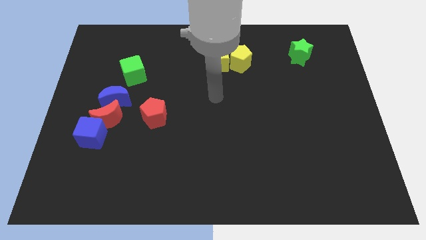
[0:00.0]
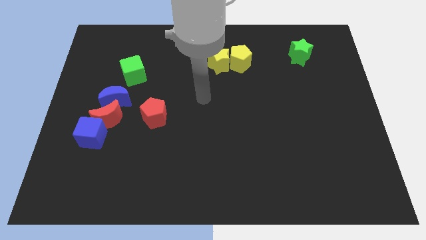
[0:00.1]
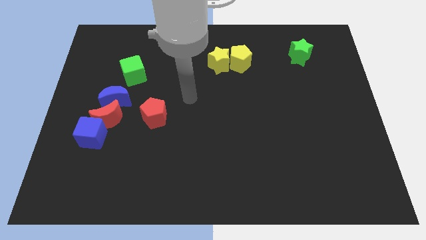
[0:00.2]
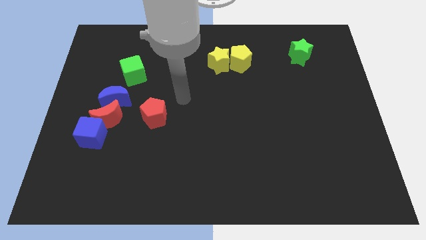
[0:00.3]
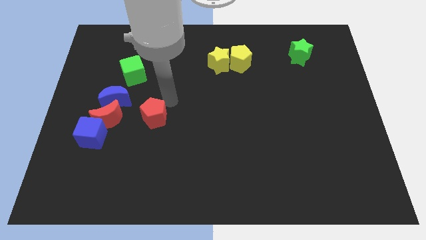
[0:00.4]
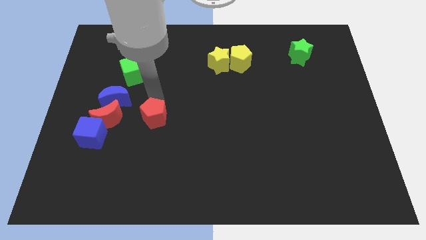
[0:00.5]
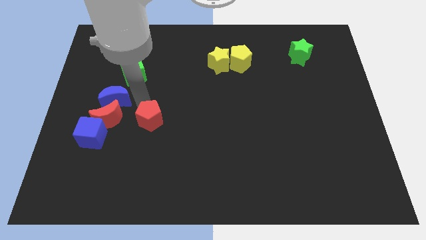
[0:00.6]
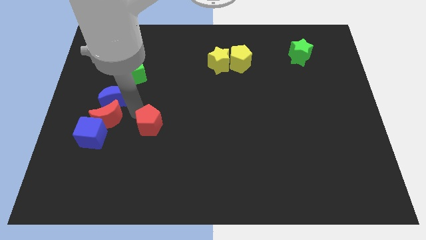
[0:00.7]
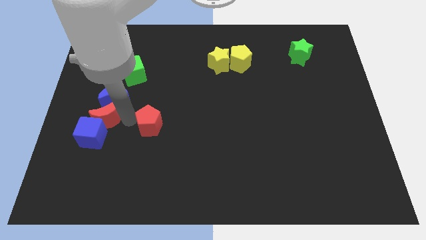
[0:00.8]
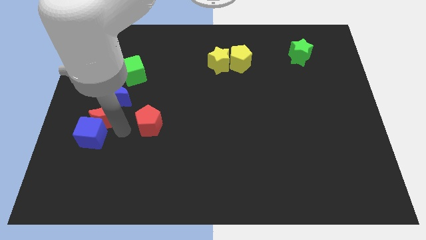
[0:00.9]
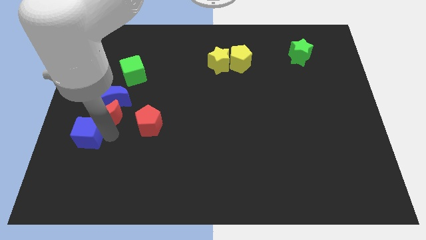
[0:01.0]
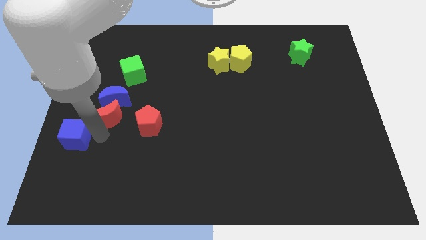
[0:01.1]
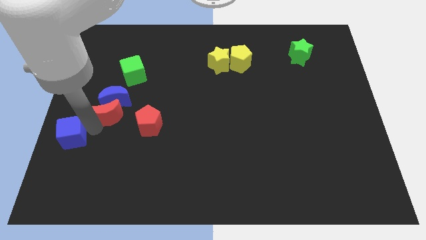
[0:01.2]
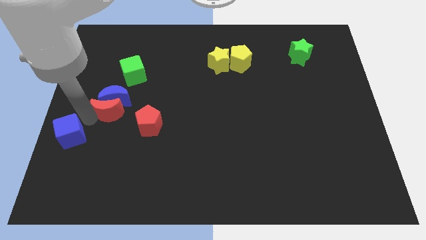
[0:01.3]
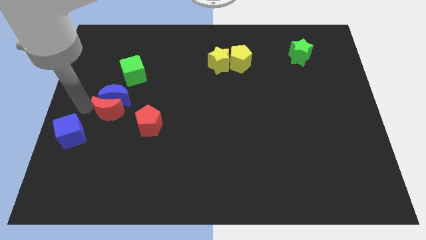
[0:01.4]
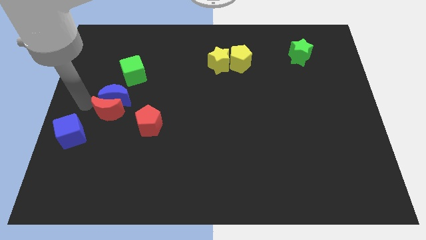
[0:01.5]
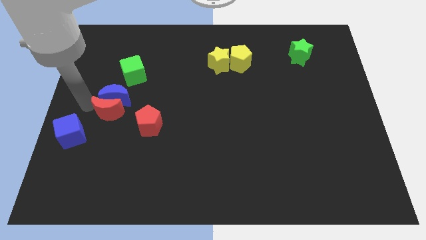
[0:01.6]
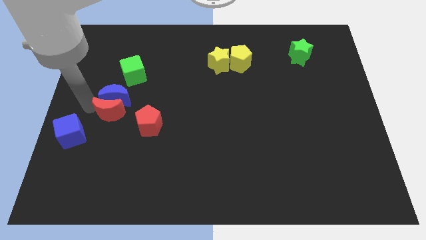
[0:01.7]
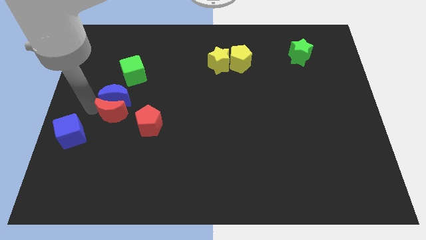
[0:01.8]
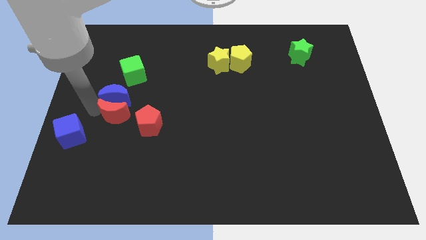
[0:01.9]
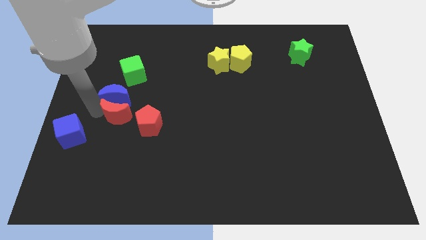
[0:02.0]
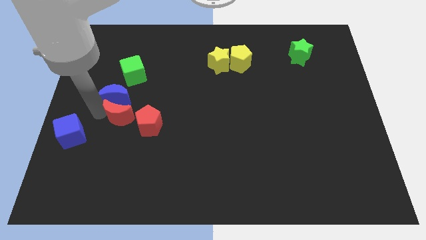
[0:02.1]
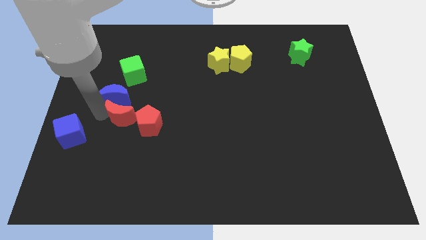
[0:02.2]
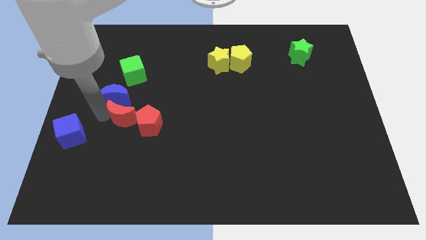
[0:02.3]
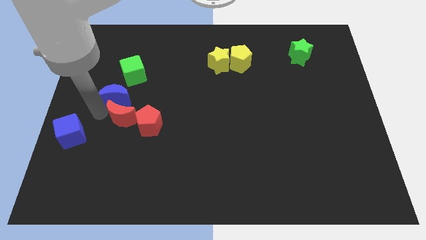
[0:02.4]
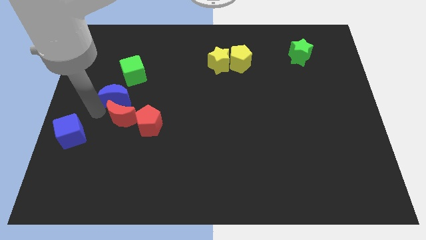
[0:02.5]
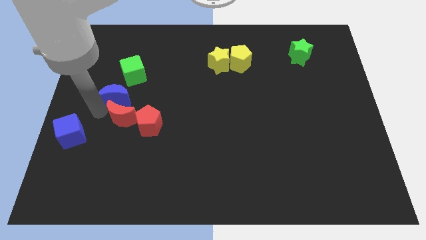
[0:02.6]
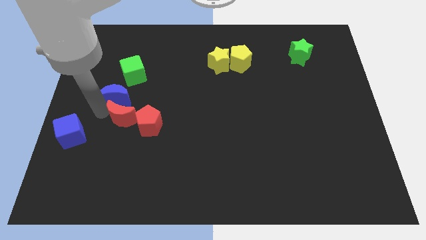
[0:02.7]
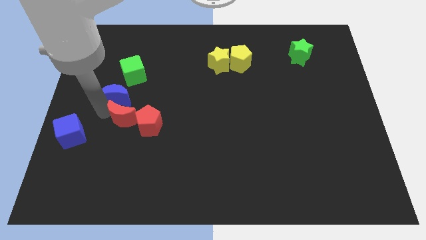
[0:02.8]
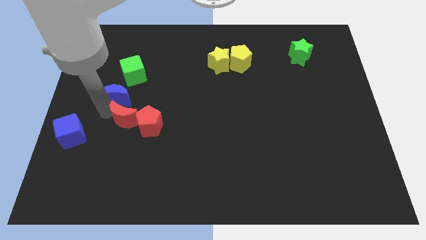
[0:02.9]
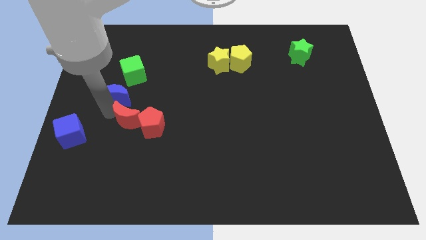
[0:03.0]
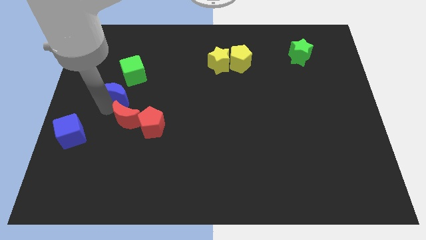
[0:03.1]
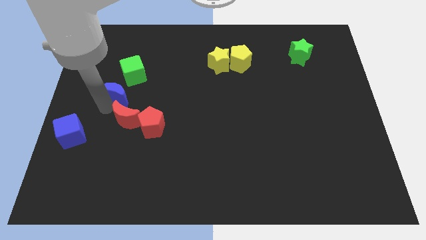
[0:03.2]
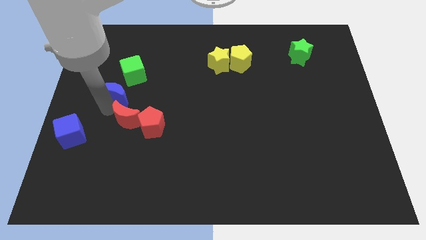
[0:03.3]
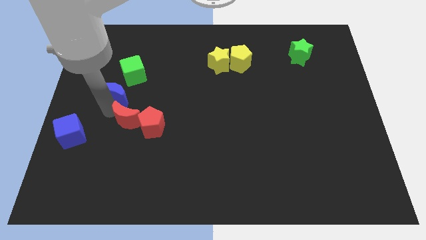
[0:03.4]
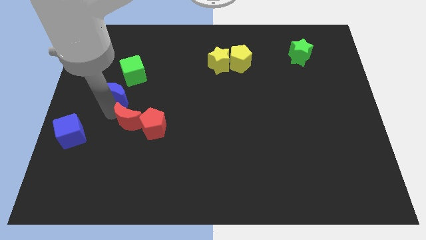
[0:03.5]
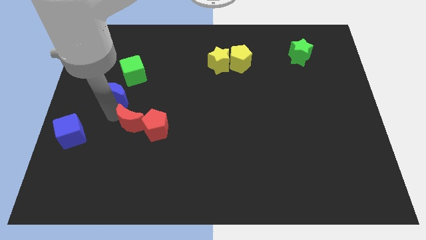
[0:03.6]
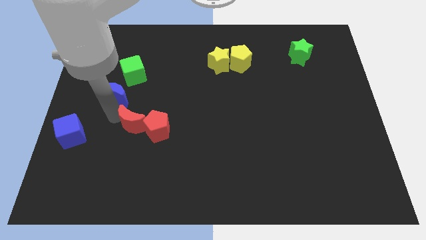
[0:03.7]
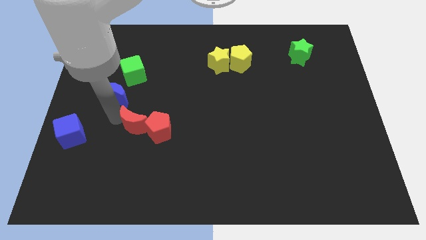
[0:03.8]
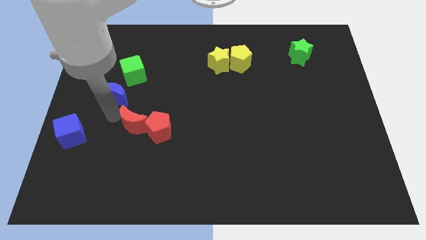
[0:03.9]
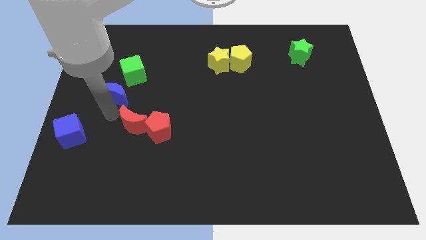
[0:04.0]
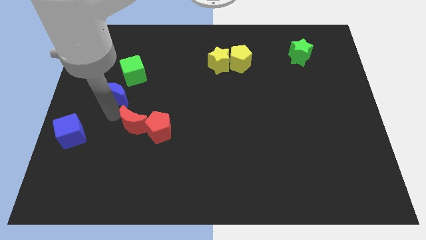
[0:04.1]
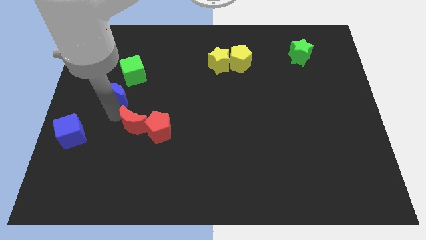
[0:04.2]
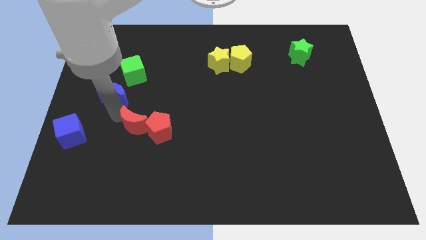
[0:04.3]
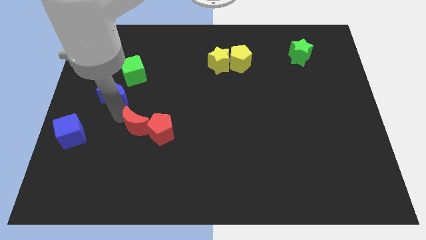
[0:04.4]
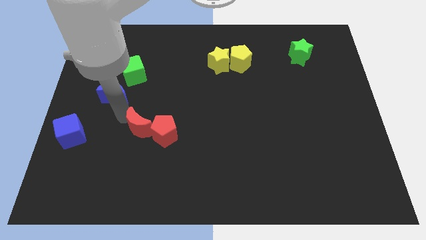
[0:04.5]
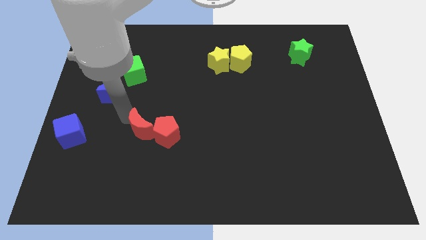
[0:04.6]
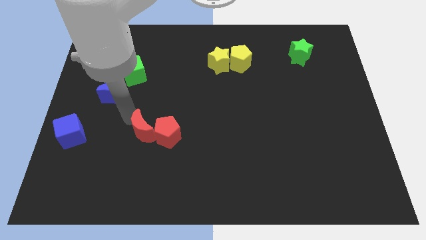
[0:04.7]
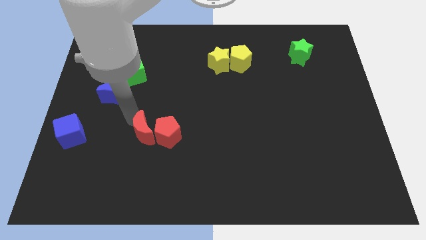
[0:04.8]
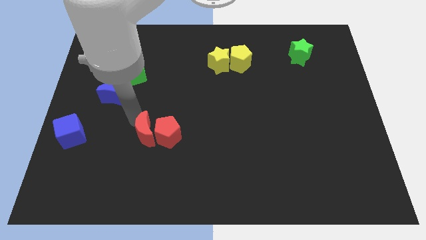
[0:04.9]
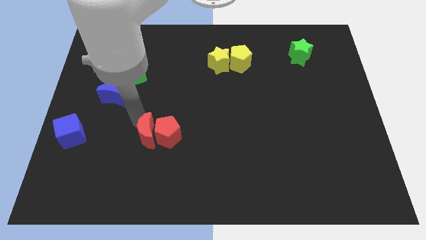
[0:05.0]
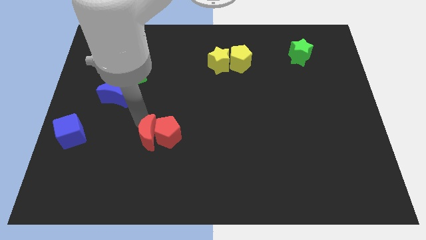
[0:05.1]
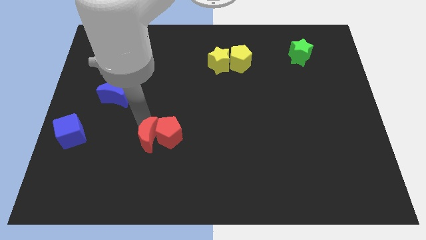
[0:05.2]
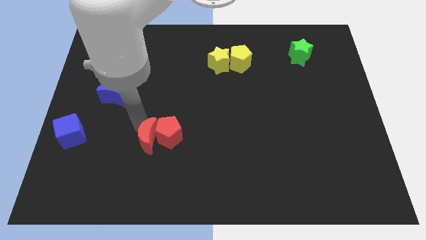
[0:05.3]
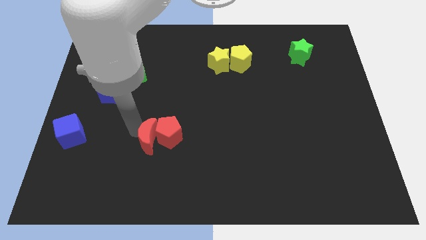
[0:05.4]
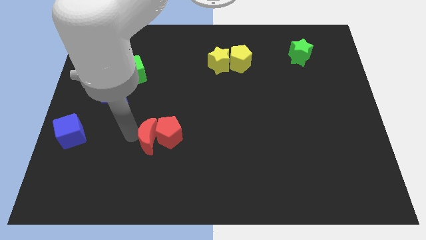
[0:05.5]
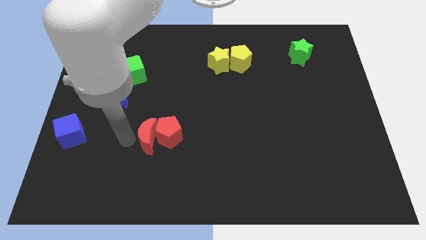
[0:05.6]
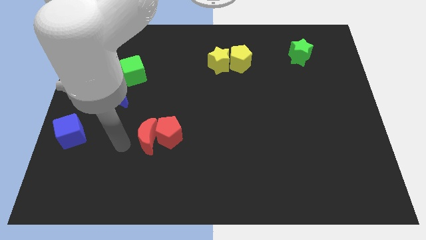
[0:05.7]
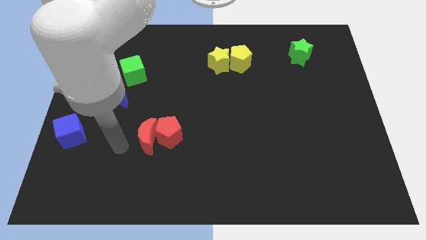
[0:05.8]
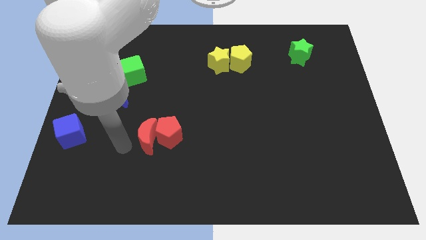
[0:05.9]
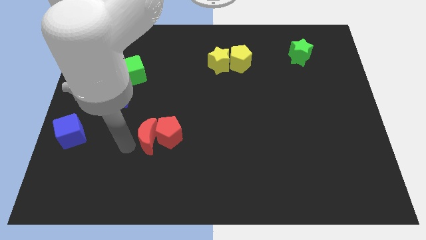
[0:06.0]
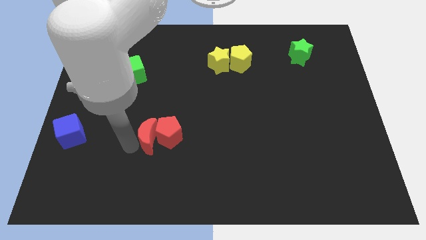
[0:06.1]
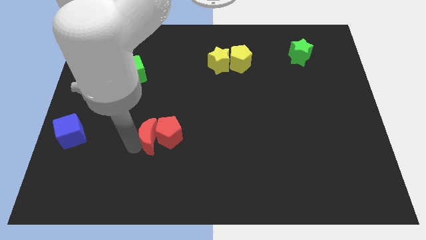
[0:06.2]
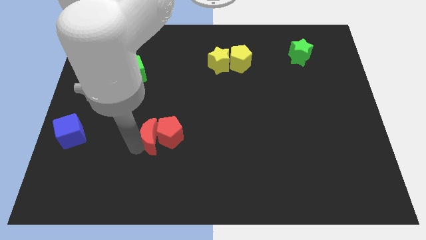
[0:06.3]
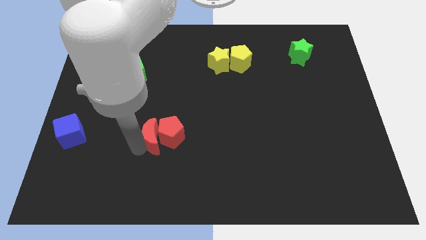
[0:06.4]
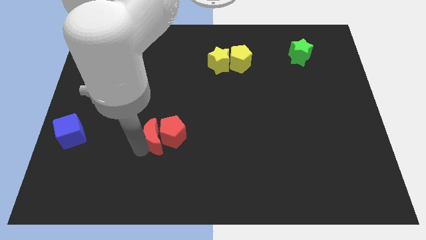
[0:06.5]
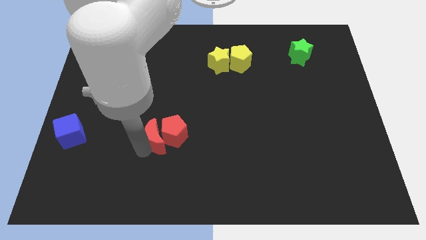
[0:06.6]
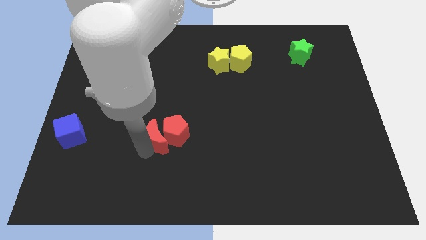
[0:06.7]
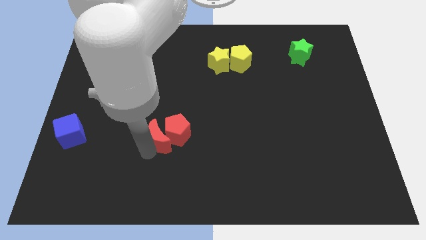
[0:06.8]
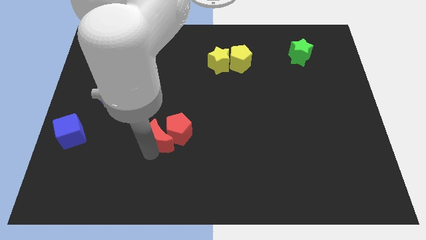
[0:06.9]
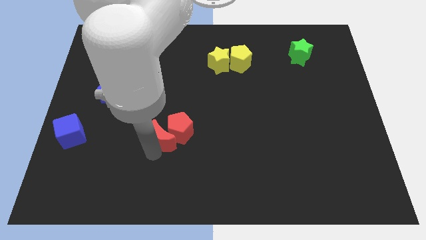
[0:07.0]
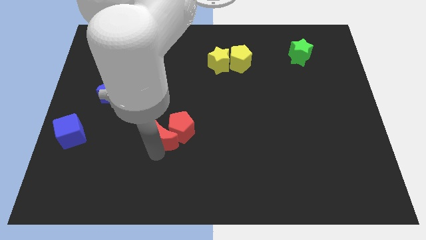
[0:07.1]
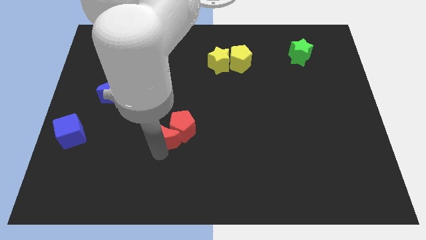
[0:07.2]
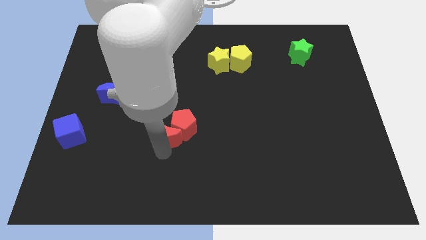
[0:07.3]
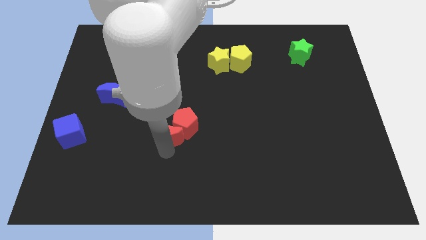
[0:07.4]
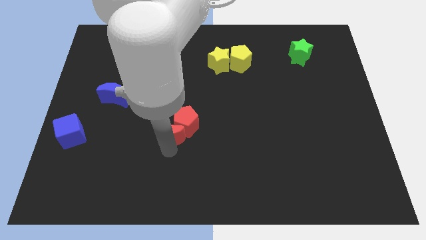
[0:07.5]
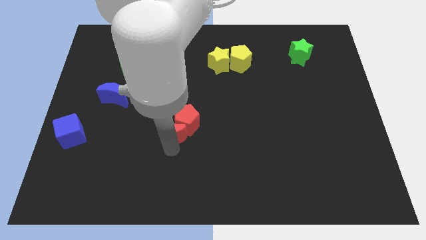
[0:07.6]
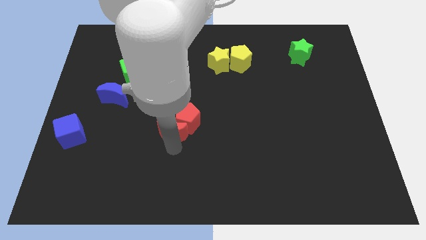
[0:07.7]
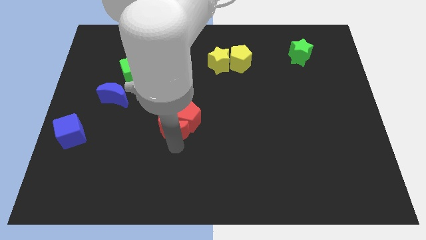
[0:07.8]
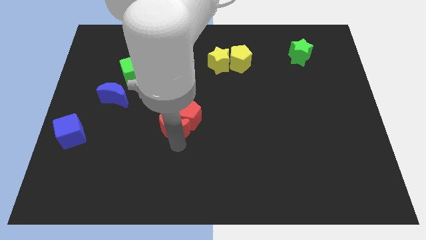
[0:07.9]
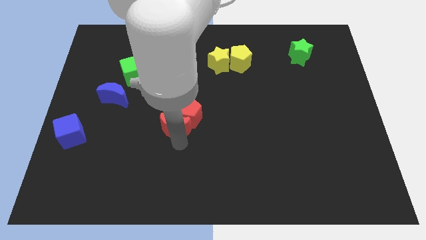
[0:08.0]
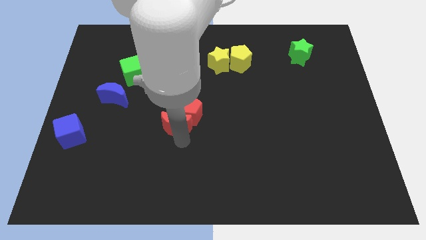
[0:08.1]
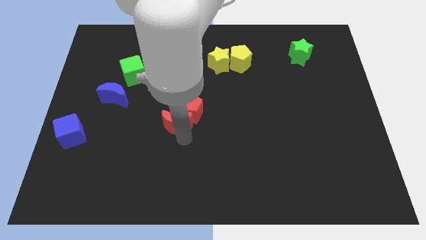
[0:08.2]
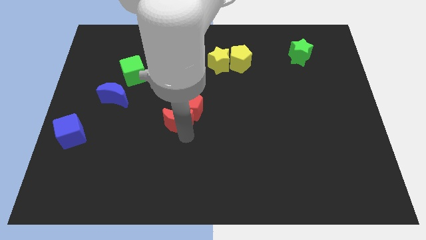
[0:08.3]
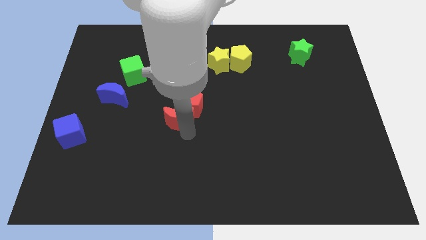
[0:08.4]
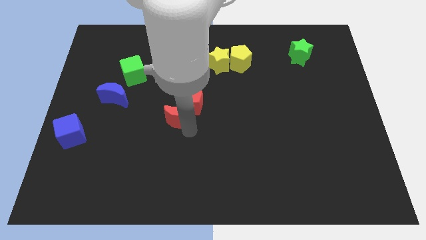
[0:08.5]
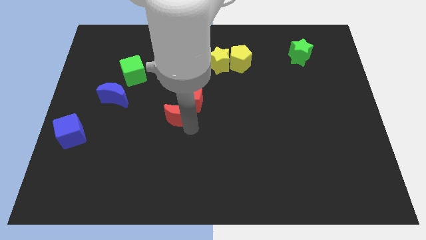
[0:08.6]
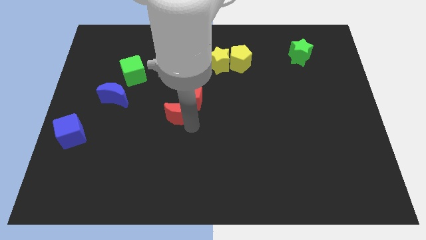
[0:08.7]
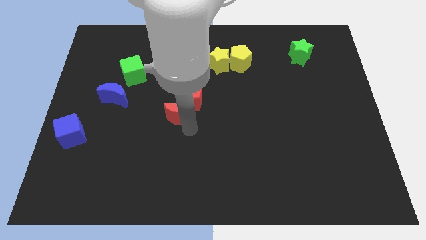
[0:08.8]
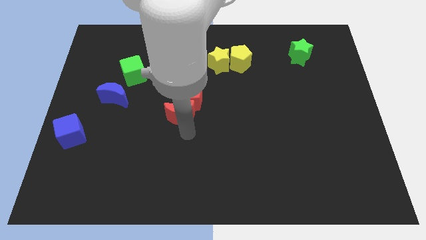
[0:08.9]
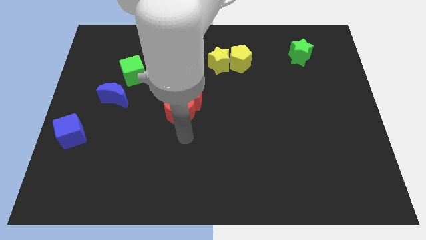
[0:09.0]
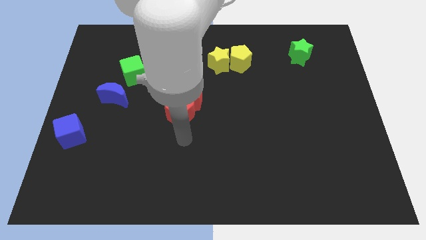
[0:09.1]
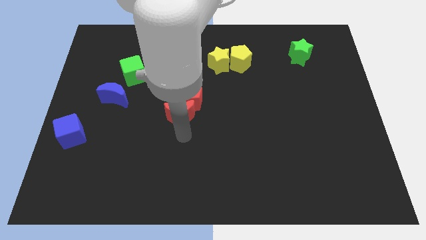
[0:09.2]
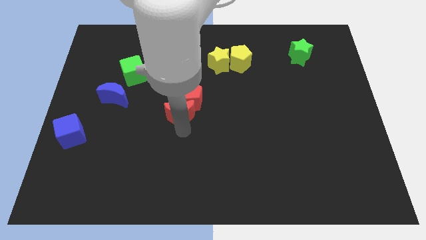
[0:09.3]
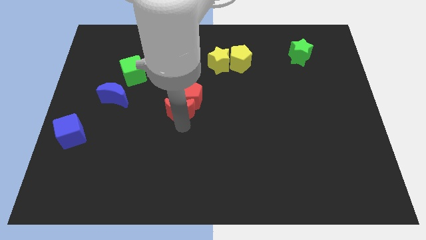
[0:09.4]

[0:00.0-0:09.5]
move the red moon up and right a little bit
